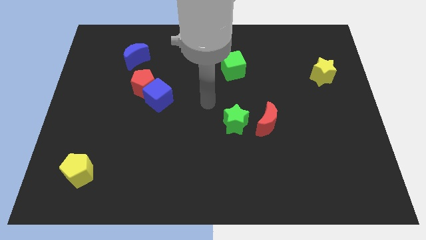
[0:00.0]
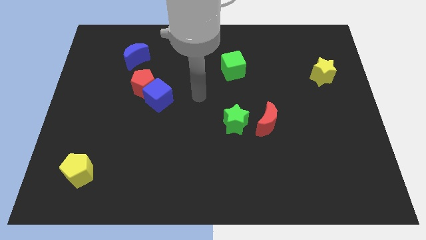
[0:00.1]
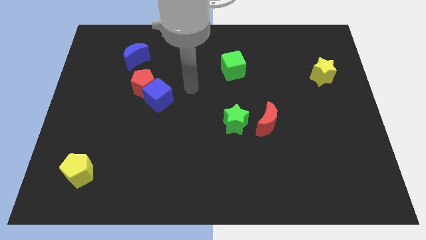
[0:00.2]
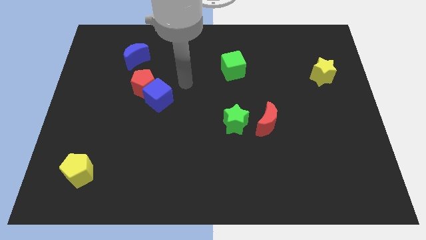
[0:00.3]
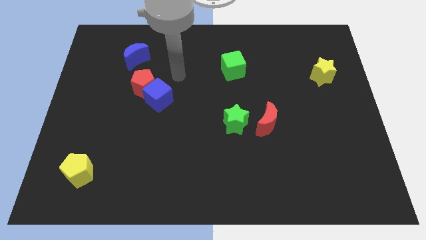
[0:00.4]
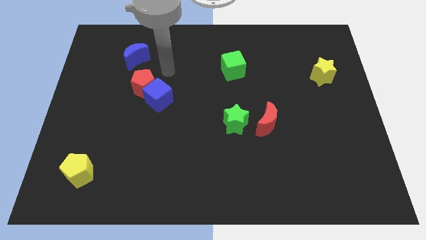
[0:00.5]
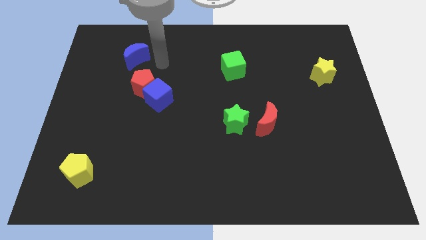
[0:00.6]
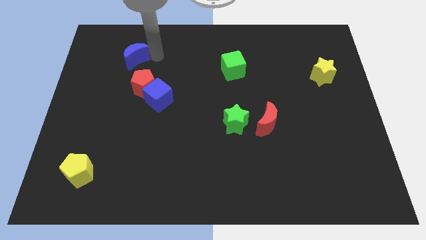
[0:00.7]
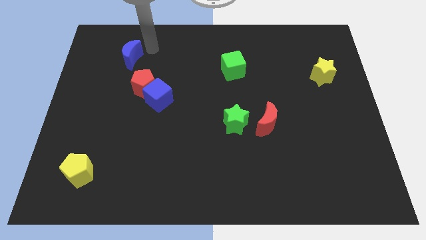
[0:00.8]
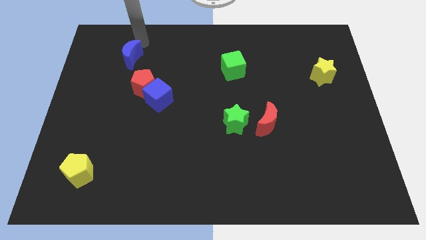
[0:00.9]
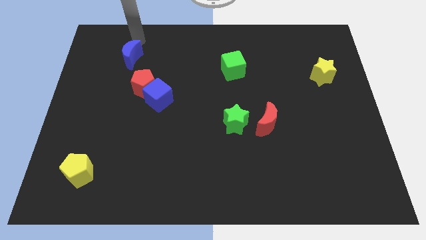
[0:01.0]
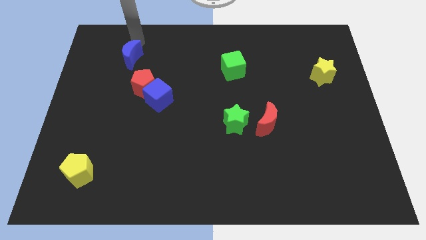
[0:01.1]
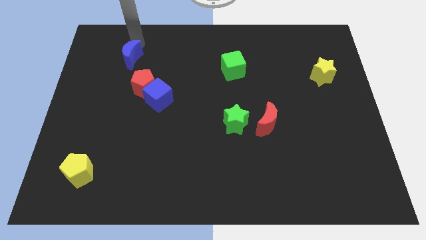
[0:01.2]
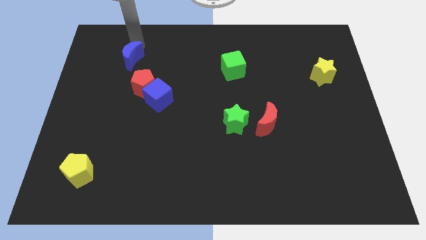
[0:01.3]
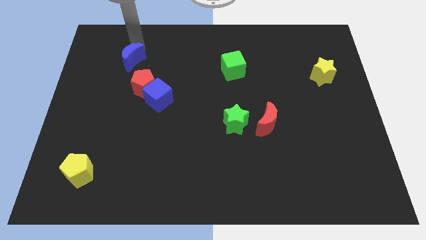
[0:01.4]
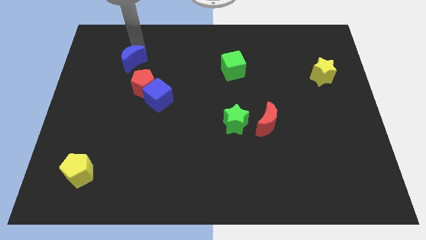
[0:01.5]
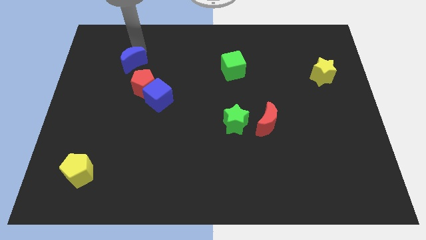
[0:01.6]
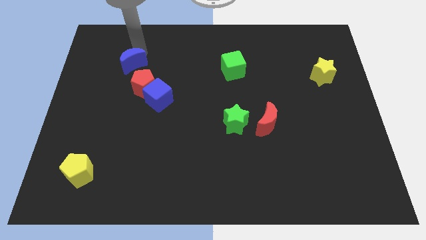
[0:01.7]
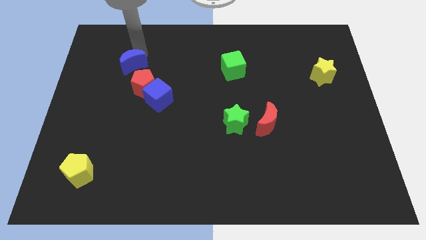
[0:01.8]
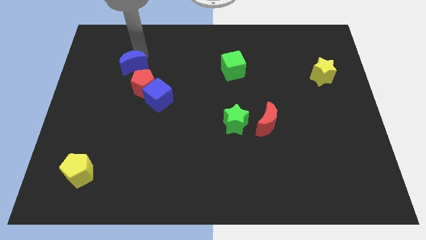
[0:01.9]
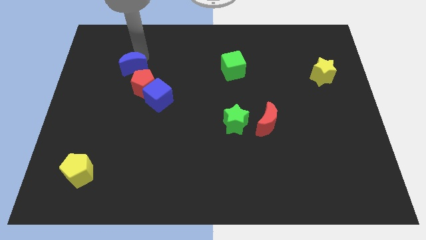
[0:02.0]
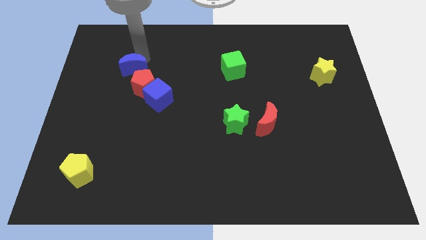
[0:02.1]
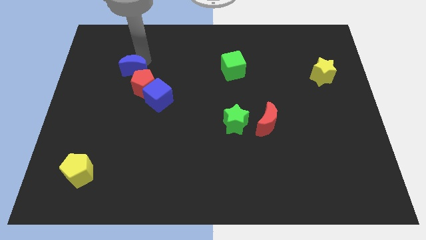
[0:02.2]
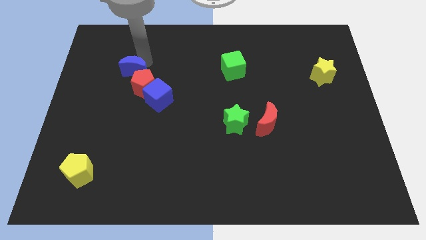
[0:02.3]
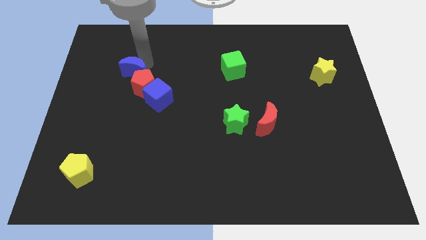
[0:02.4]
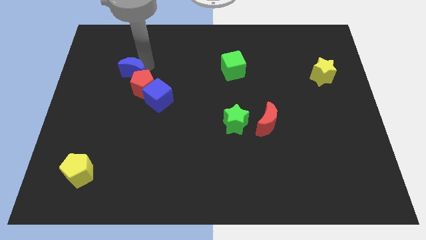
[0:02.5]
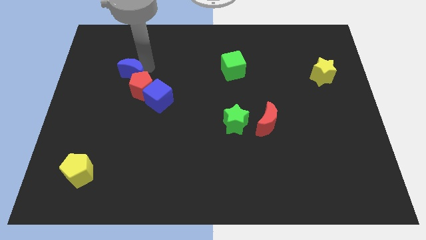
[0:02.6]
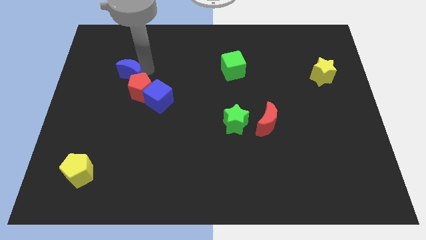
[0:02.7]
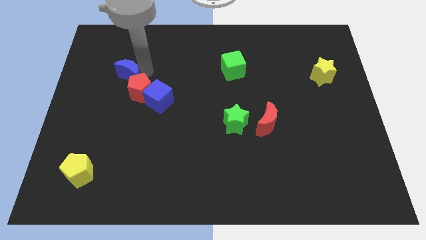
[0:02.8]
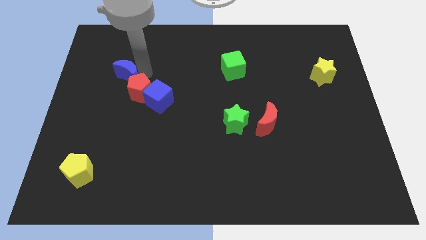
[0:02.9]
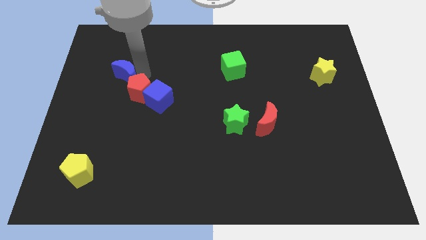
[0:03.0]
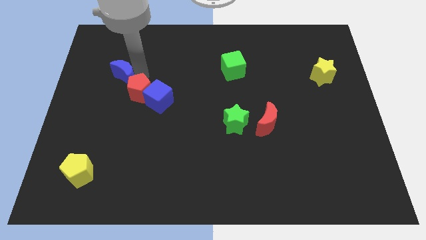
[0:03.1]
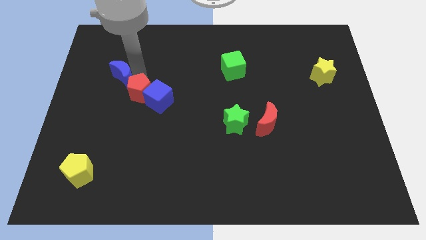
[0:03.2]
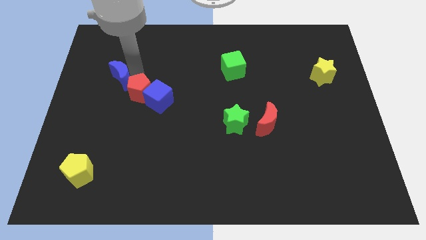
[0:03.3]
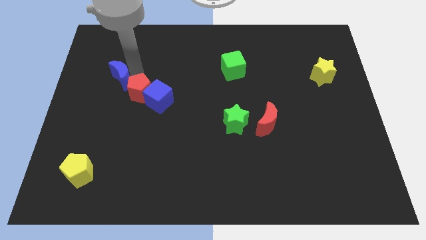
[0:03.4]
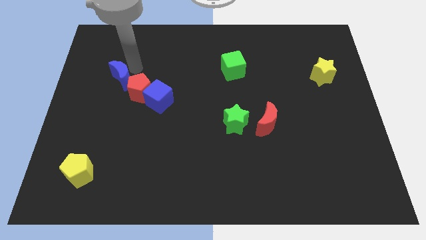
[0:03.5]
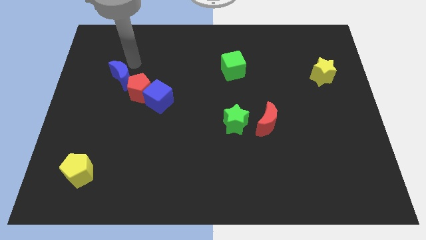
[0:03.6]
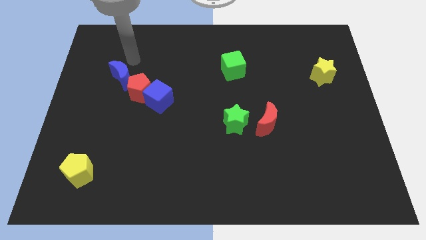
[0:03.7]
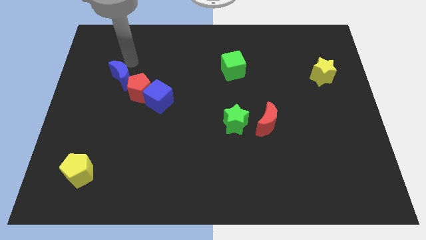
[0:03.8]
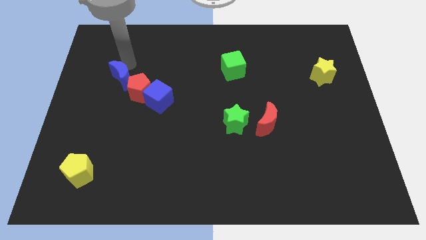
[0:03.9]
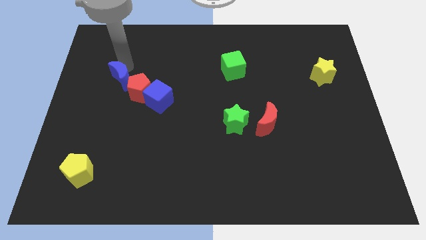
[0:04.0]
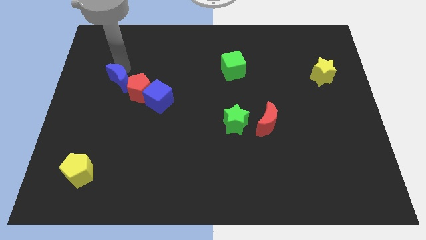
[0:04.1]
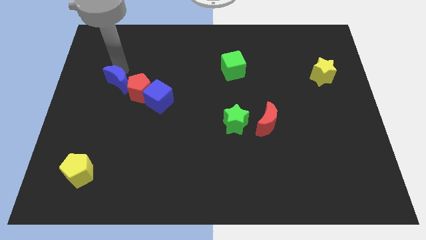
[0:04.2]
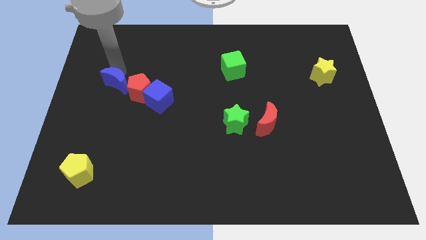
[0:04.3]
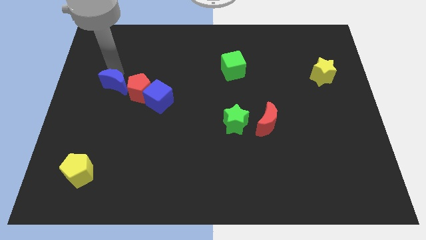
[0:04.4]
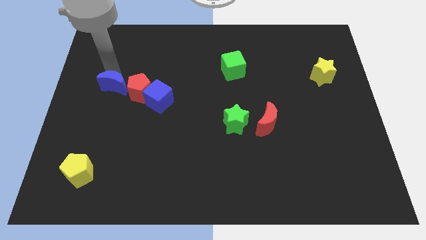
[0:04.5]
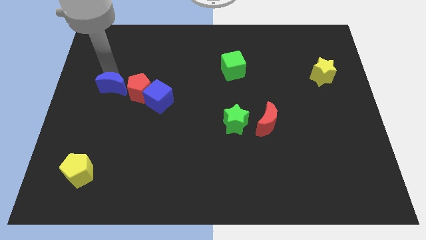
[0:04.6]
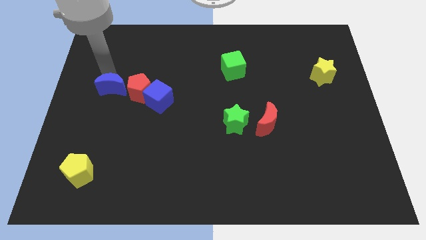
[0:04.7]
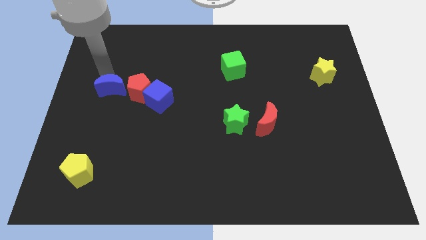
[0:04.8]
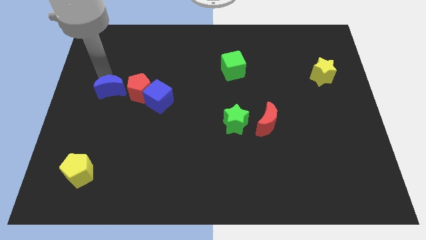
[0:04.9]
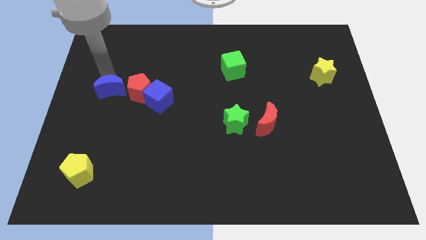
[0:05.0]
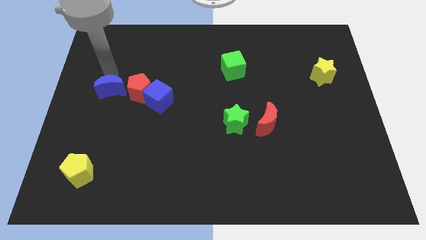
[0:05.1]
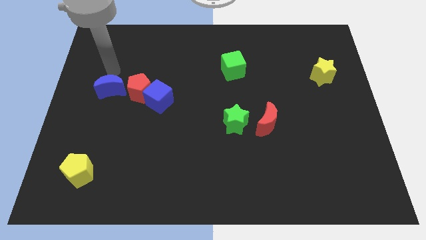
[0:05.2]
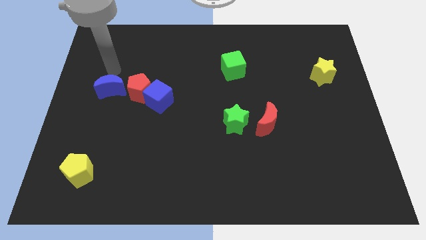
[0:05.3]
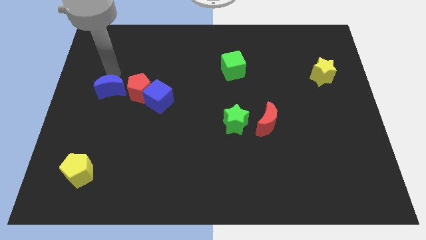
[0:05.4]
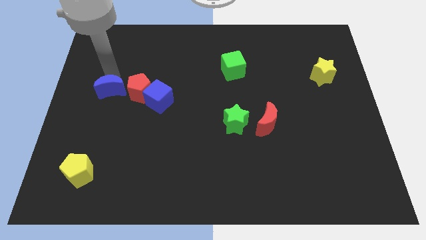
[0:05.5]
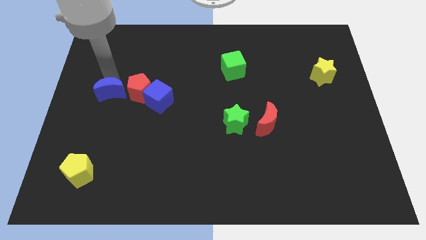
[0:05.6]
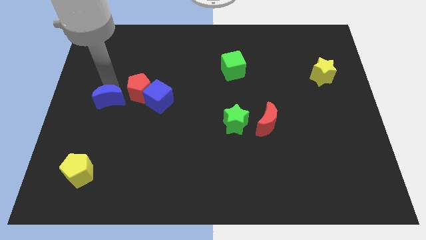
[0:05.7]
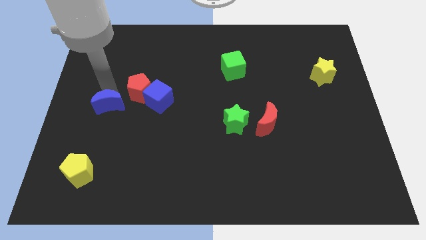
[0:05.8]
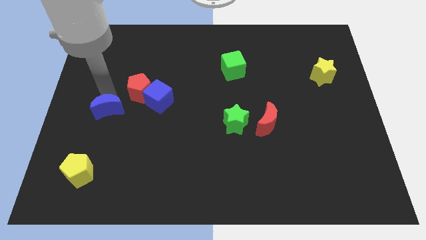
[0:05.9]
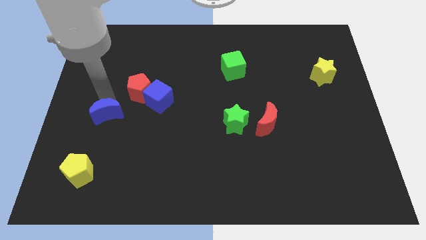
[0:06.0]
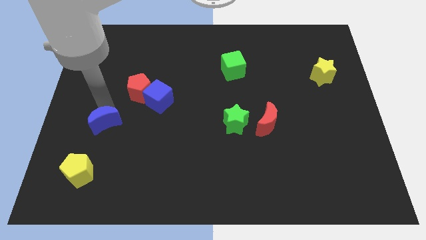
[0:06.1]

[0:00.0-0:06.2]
slide the blue moon downwards

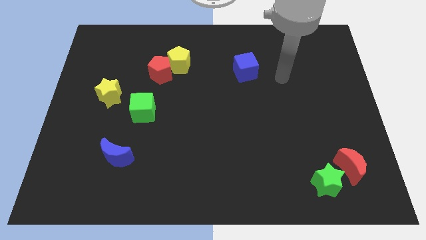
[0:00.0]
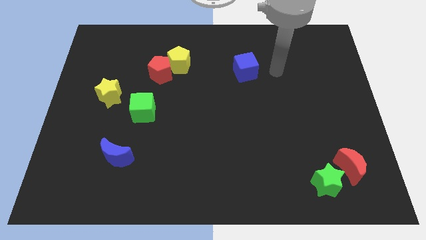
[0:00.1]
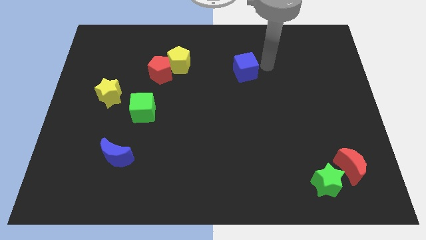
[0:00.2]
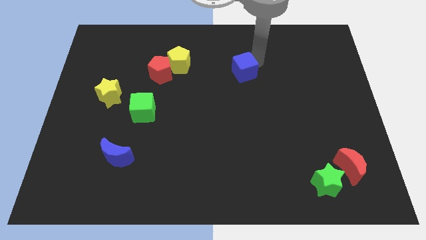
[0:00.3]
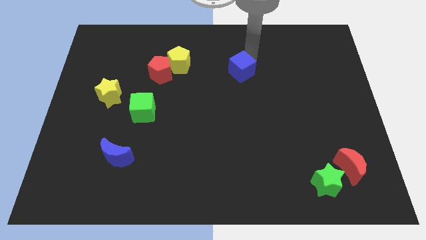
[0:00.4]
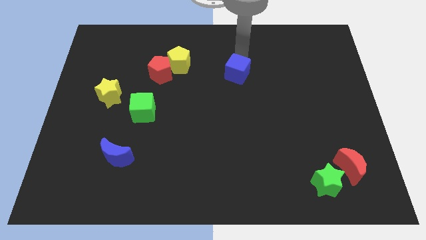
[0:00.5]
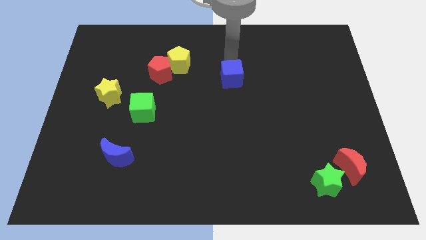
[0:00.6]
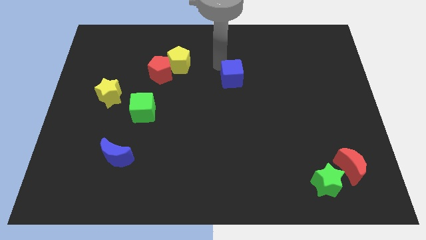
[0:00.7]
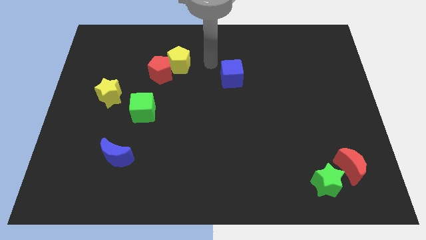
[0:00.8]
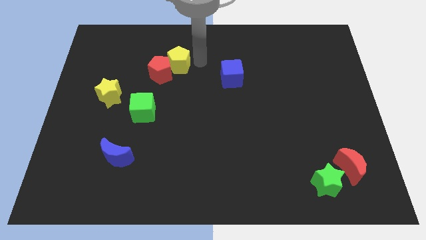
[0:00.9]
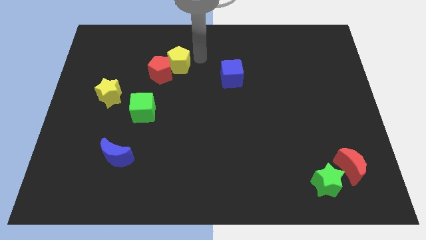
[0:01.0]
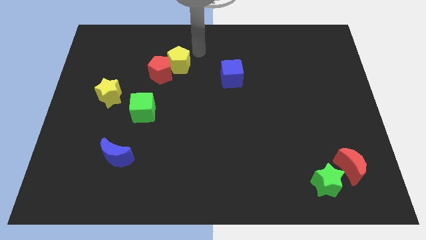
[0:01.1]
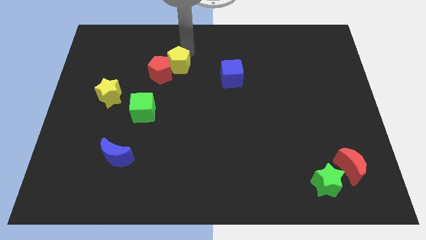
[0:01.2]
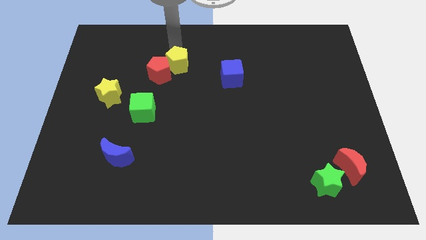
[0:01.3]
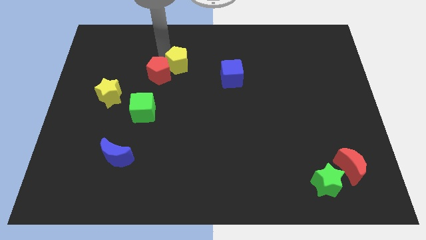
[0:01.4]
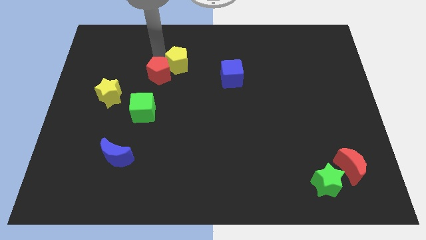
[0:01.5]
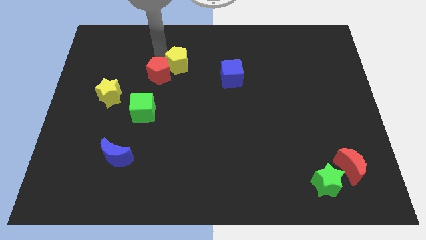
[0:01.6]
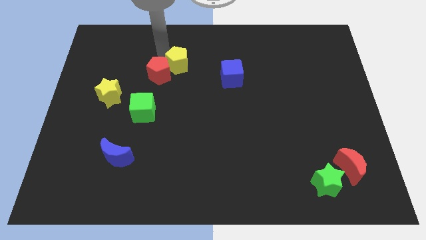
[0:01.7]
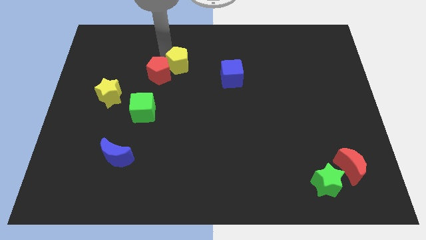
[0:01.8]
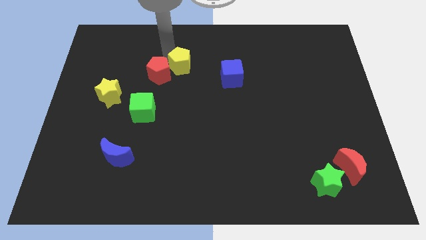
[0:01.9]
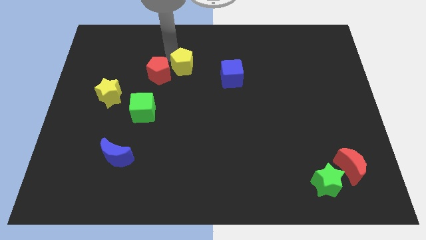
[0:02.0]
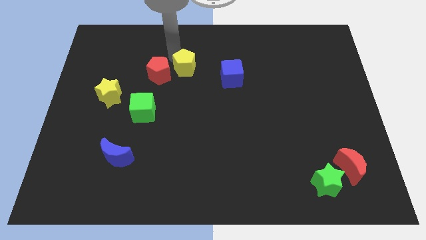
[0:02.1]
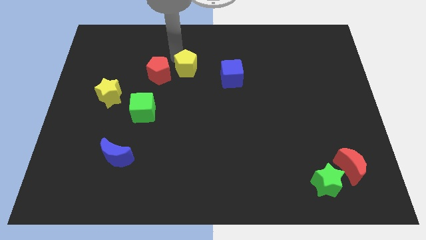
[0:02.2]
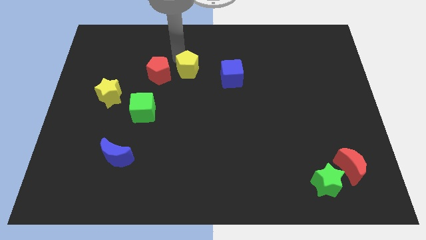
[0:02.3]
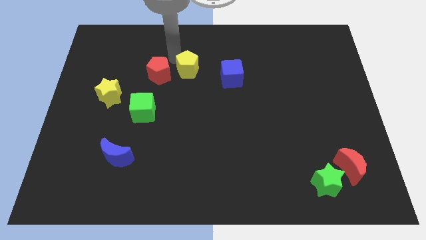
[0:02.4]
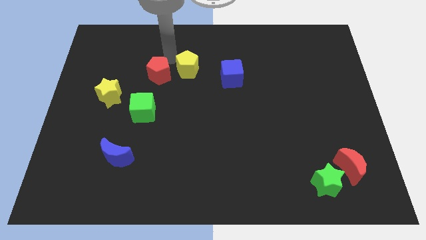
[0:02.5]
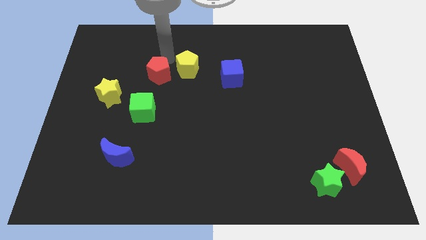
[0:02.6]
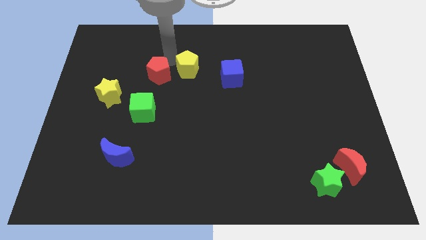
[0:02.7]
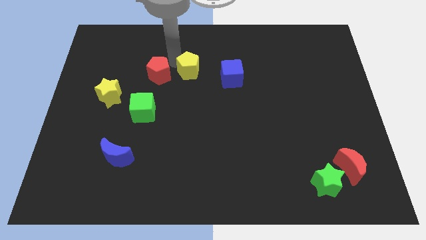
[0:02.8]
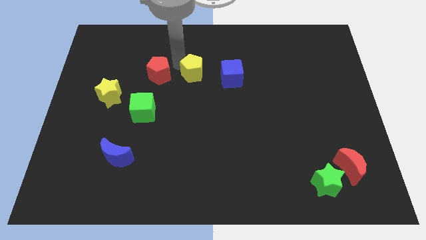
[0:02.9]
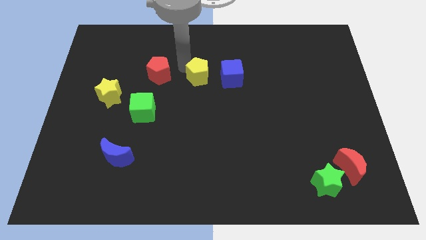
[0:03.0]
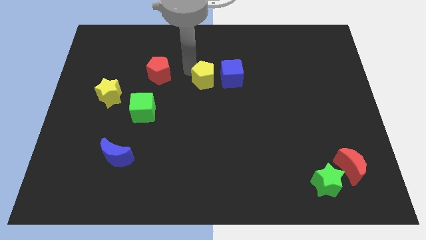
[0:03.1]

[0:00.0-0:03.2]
move the yellow pentagon down and to the right diagonally somewhat
